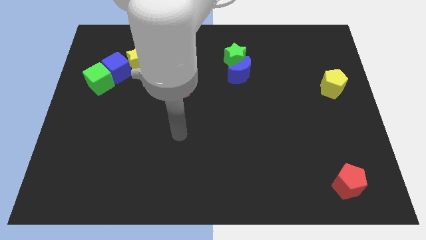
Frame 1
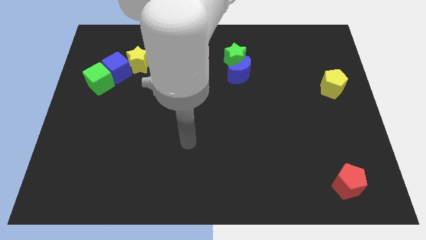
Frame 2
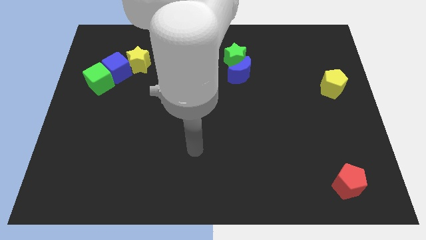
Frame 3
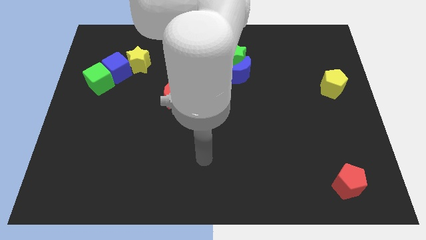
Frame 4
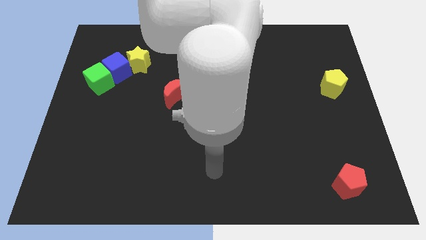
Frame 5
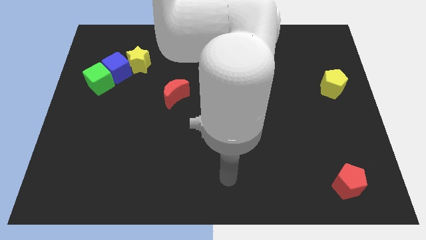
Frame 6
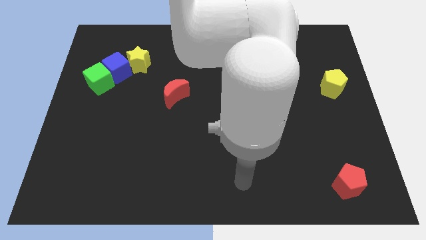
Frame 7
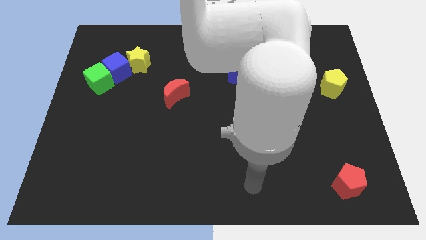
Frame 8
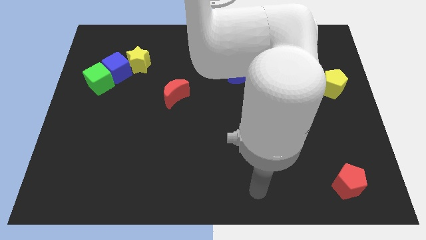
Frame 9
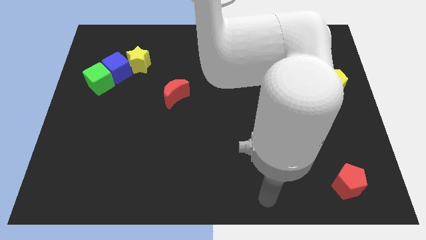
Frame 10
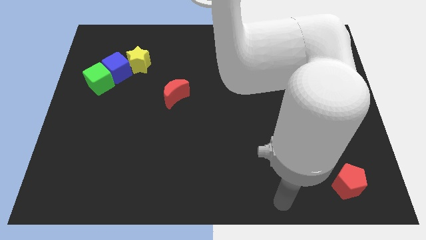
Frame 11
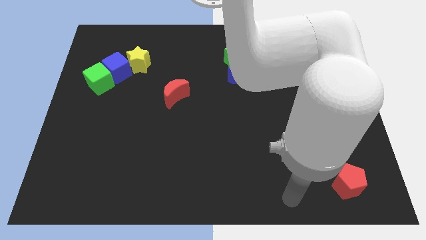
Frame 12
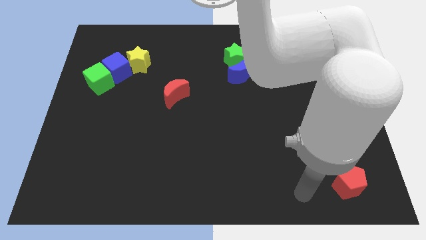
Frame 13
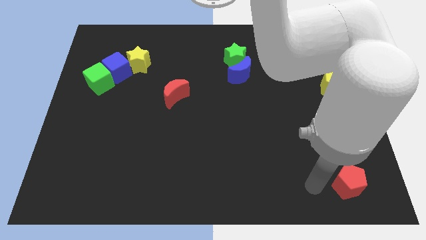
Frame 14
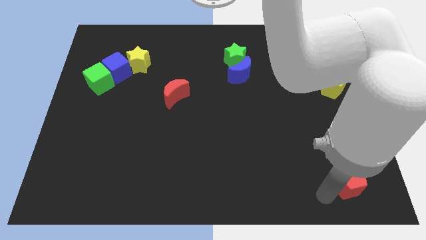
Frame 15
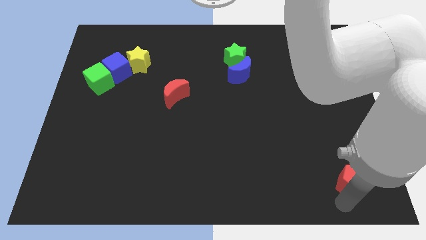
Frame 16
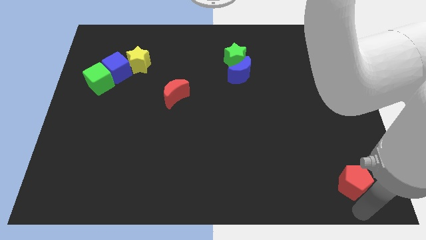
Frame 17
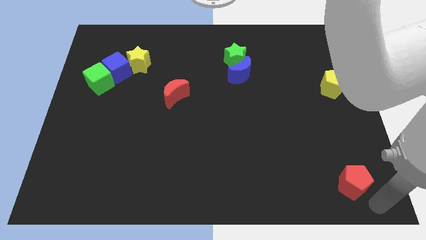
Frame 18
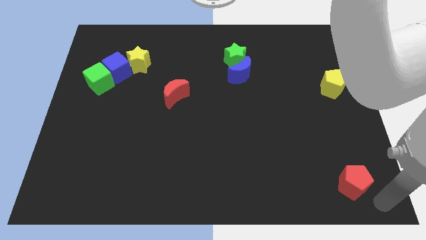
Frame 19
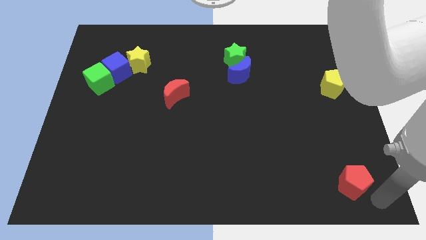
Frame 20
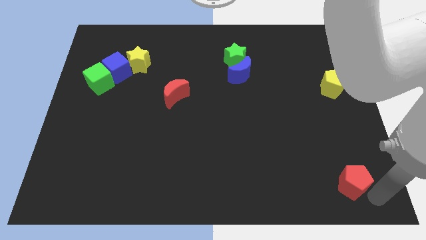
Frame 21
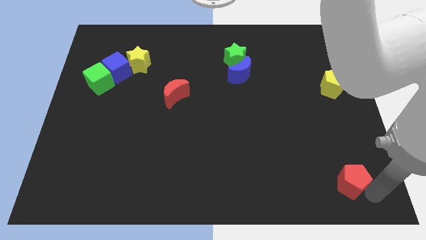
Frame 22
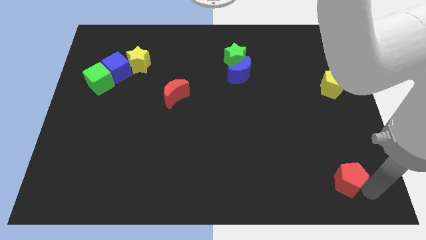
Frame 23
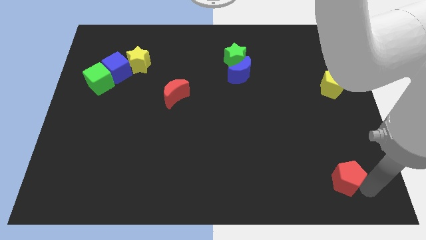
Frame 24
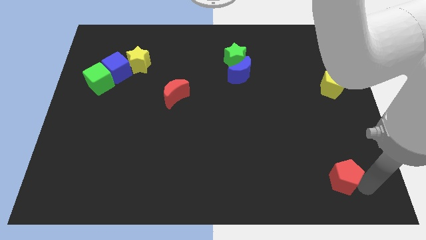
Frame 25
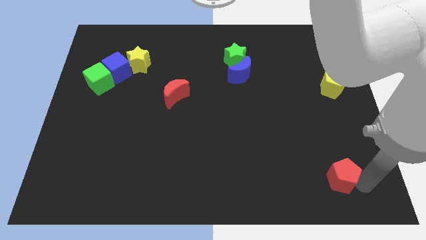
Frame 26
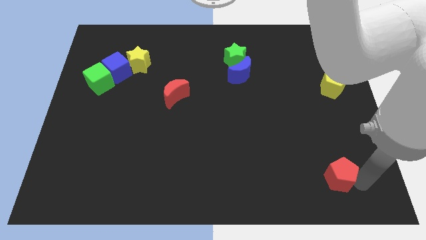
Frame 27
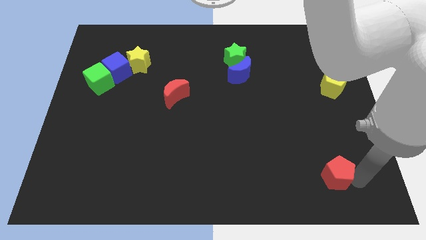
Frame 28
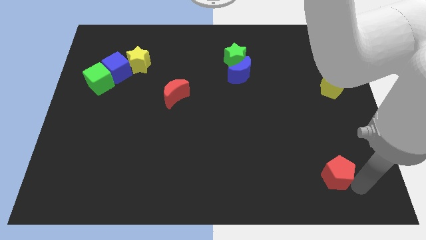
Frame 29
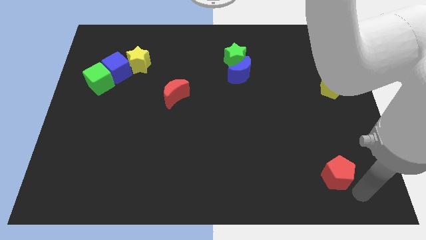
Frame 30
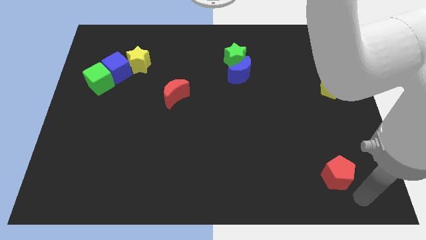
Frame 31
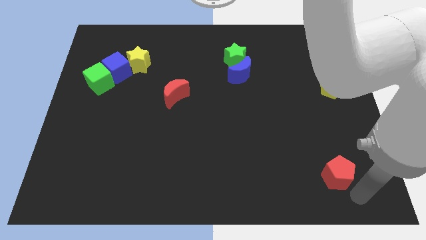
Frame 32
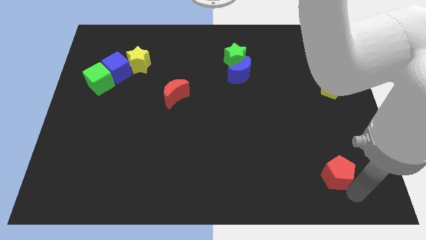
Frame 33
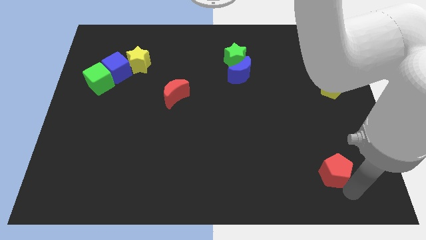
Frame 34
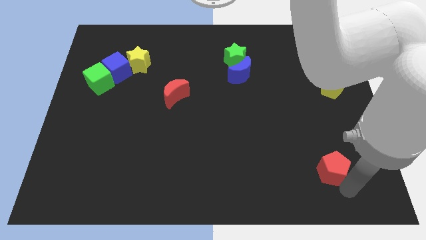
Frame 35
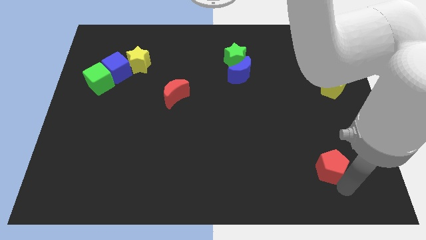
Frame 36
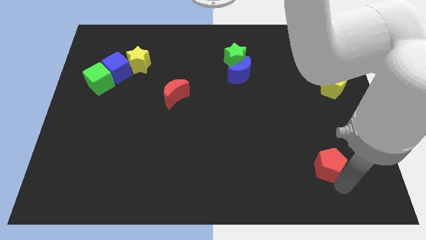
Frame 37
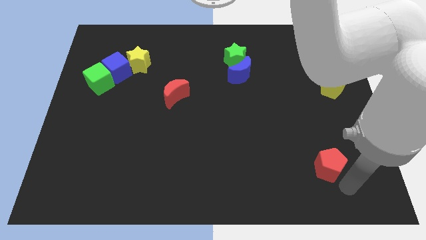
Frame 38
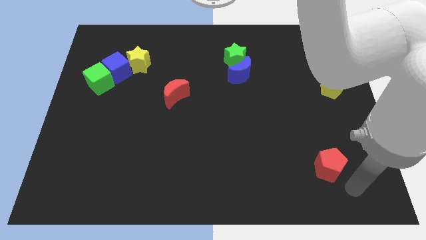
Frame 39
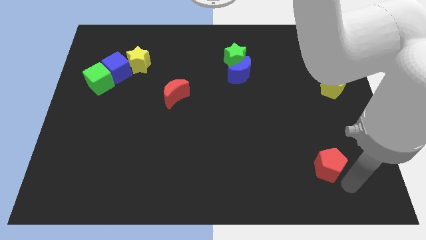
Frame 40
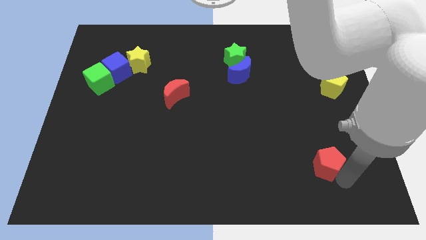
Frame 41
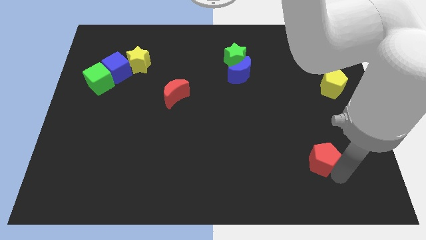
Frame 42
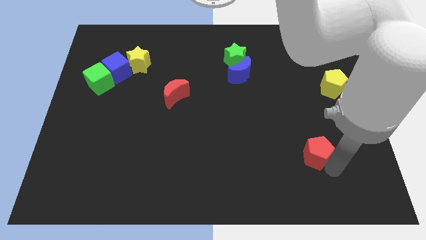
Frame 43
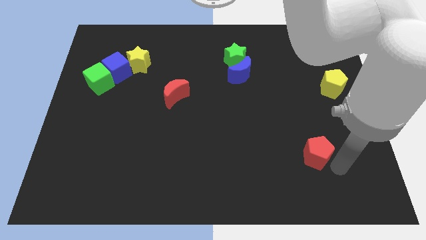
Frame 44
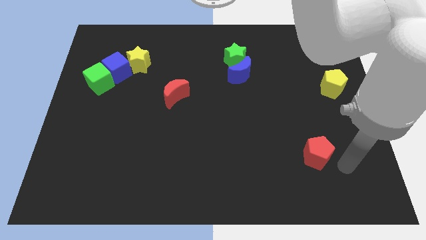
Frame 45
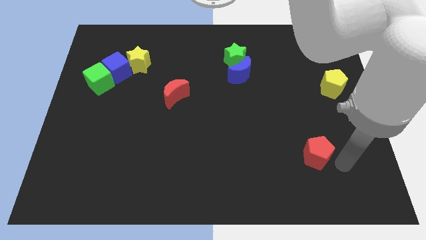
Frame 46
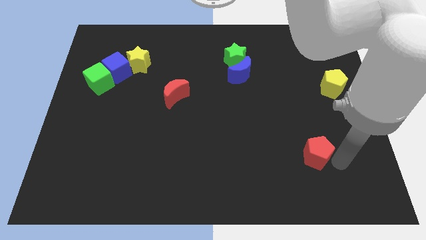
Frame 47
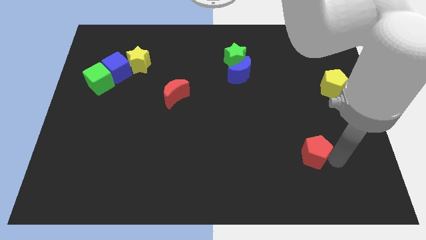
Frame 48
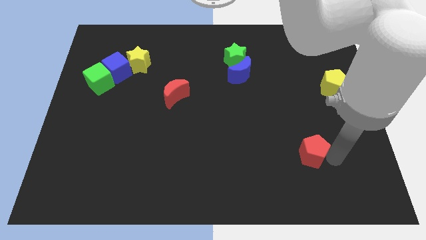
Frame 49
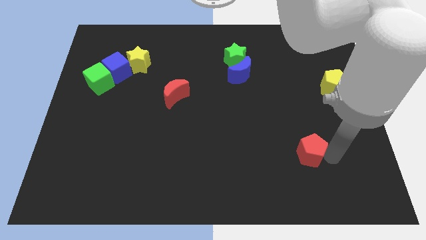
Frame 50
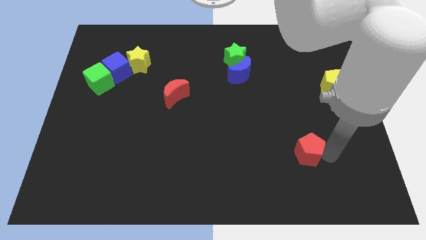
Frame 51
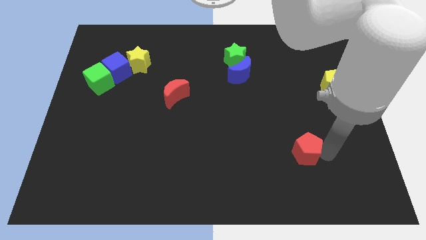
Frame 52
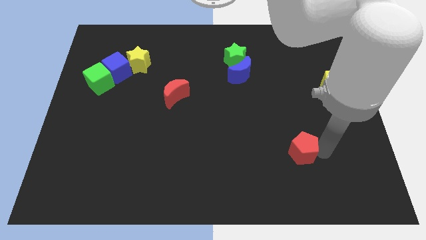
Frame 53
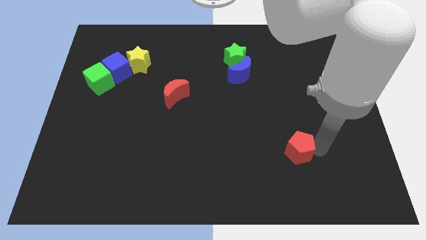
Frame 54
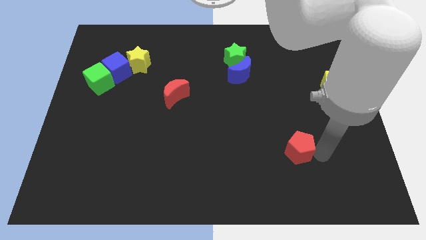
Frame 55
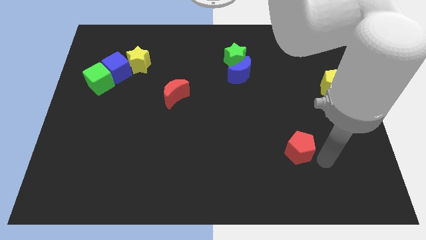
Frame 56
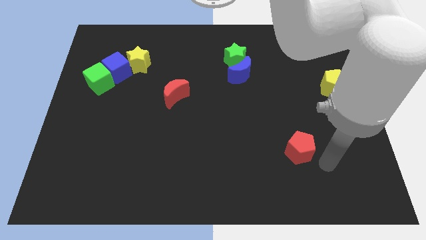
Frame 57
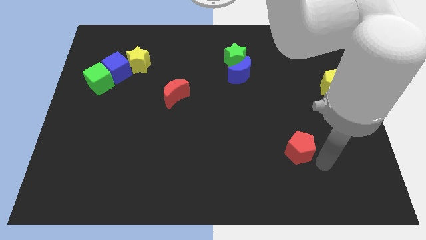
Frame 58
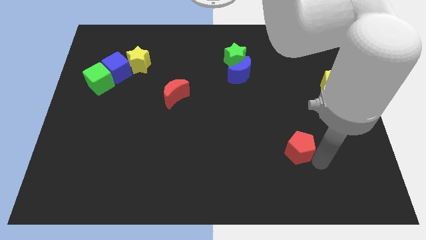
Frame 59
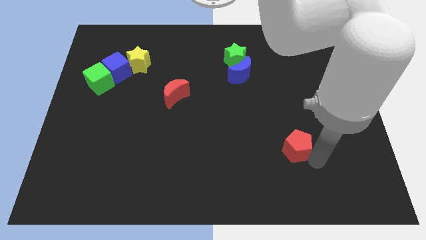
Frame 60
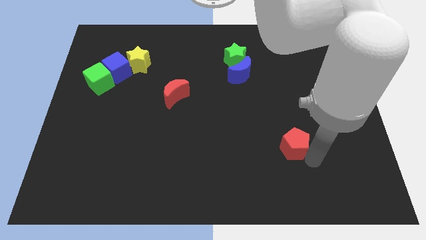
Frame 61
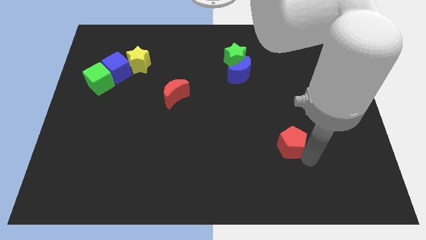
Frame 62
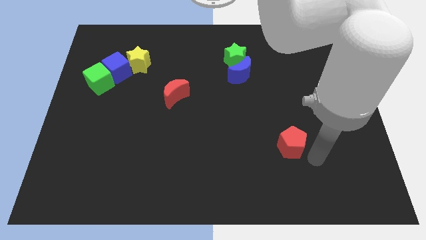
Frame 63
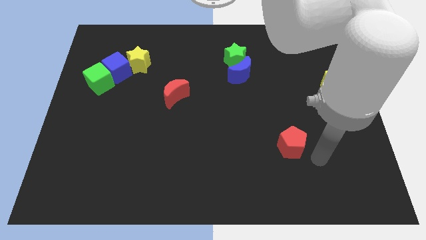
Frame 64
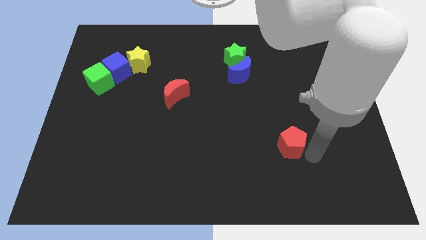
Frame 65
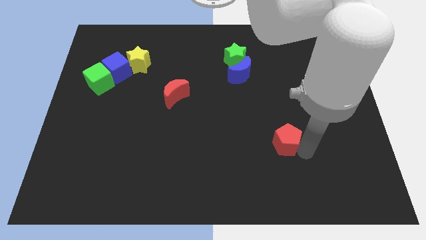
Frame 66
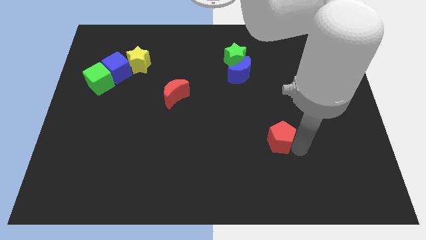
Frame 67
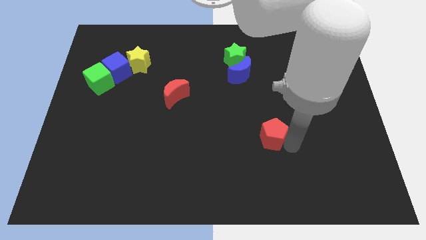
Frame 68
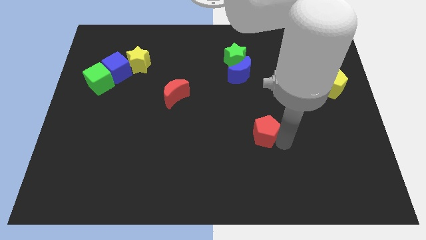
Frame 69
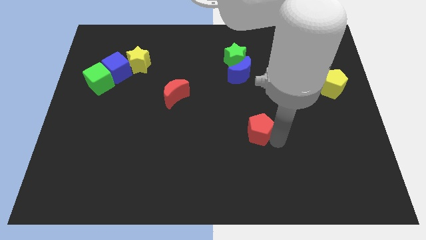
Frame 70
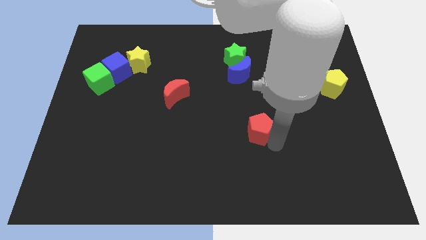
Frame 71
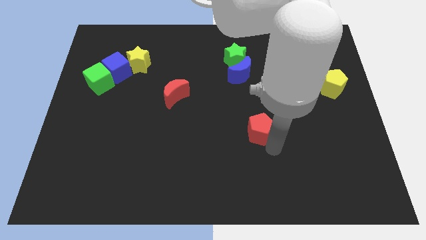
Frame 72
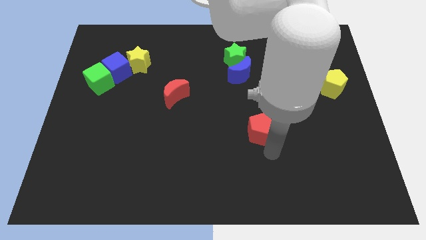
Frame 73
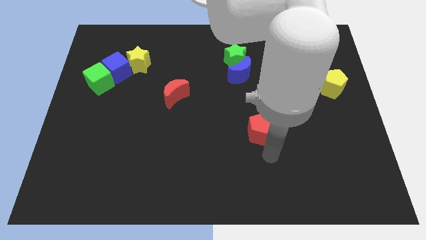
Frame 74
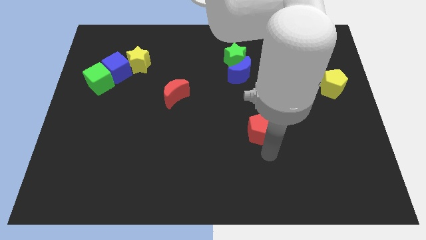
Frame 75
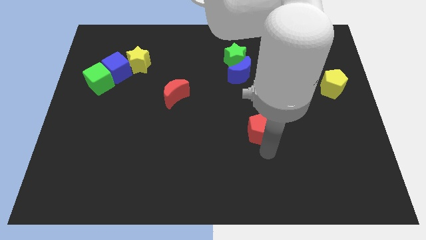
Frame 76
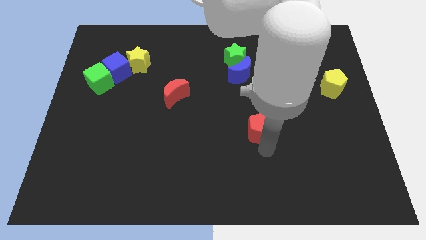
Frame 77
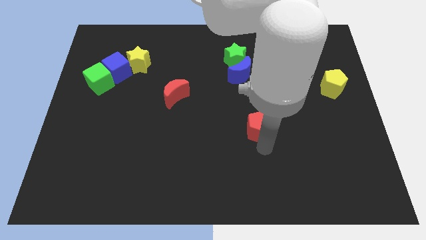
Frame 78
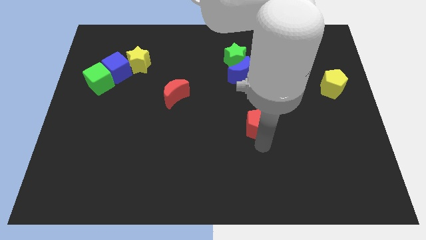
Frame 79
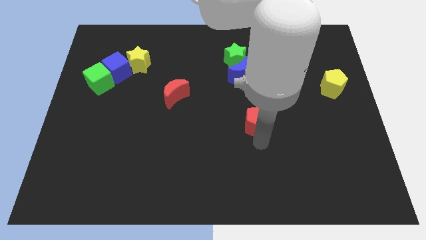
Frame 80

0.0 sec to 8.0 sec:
move the red pentagon to the bottom side of the blue moon
